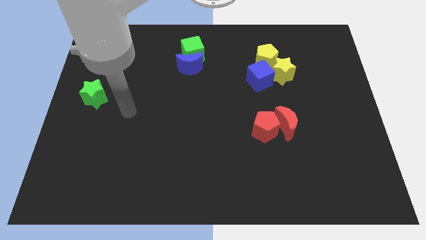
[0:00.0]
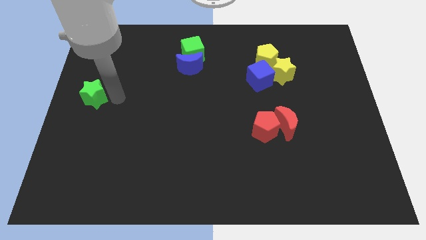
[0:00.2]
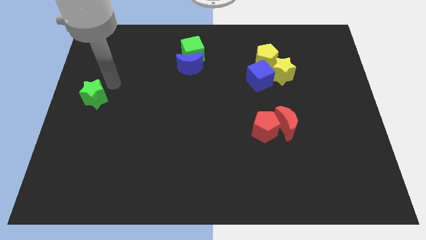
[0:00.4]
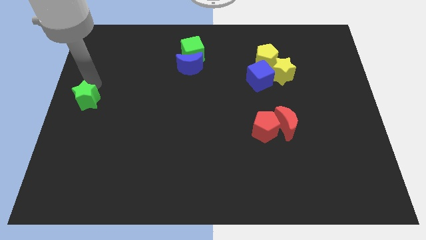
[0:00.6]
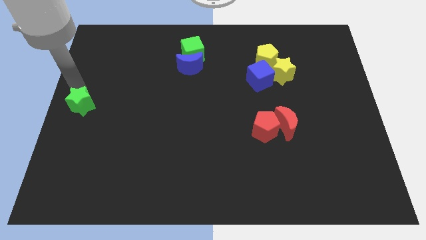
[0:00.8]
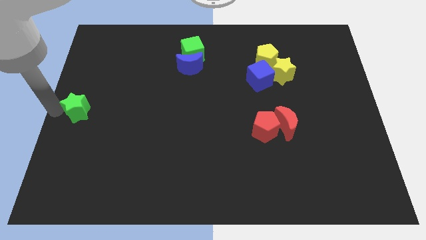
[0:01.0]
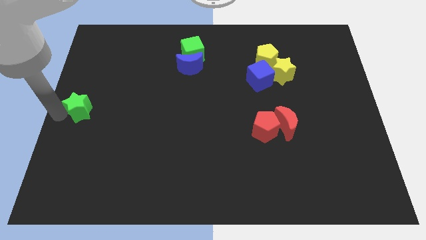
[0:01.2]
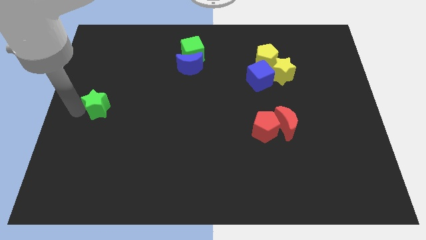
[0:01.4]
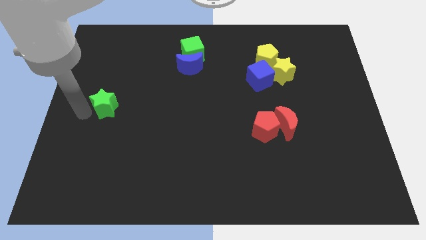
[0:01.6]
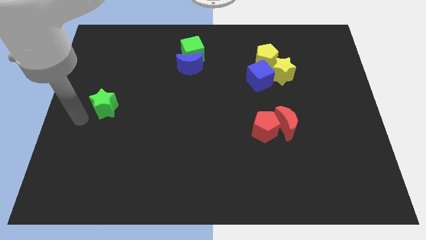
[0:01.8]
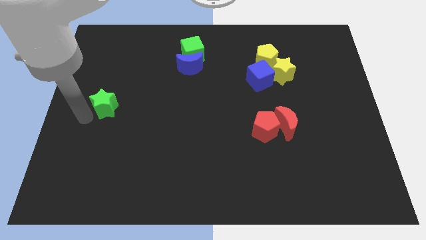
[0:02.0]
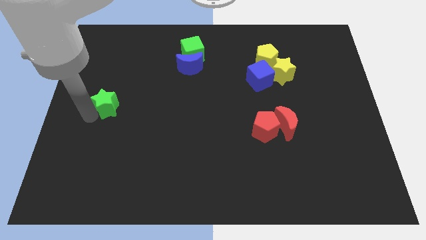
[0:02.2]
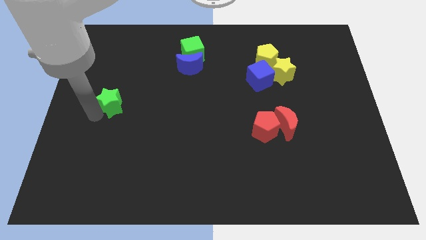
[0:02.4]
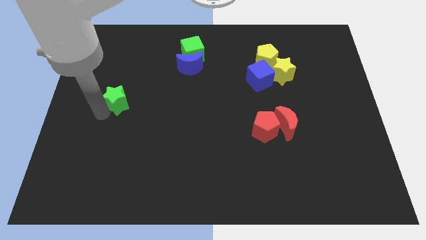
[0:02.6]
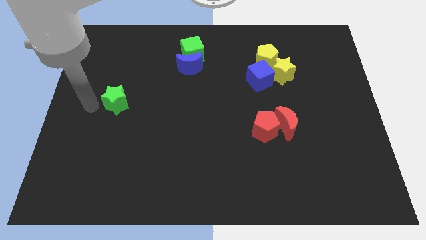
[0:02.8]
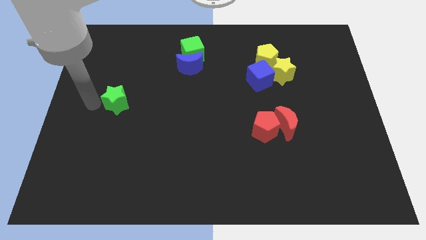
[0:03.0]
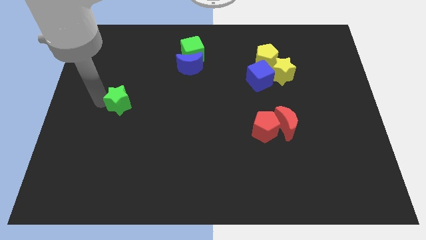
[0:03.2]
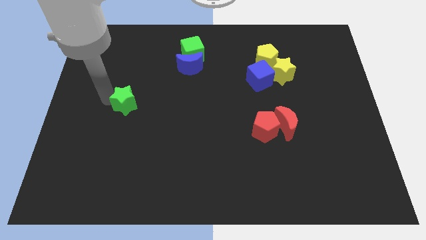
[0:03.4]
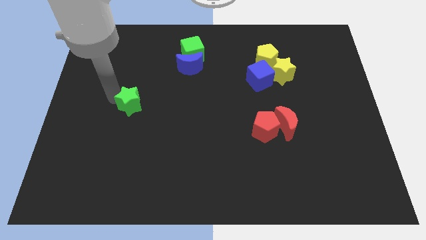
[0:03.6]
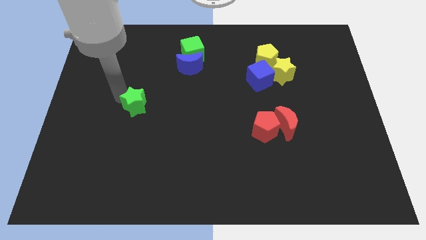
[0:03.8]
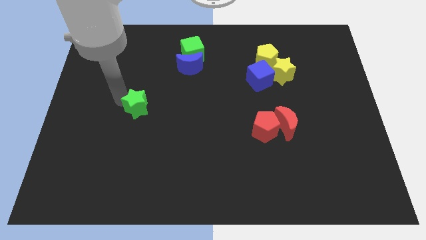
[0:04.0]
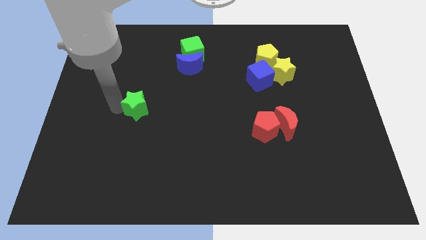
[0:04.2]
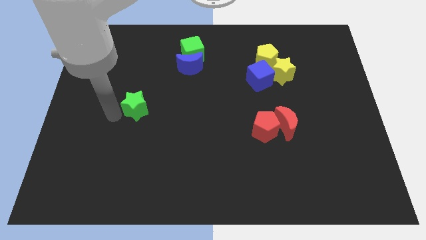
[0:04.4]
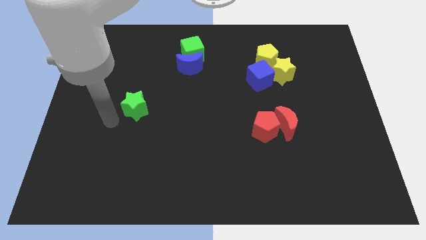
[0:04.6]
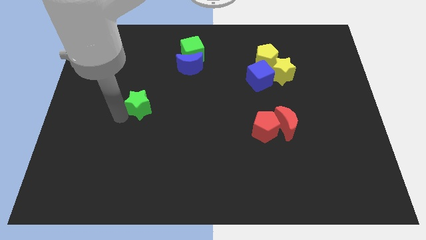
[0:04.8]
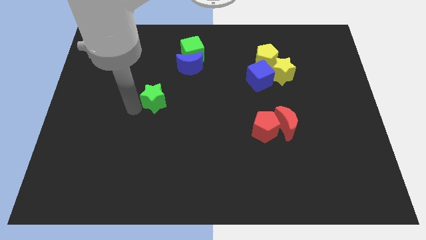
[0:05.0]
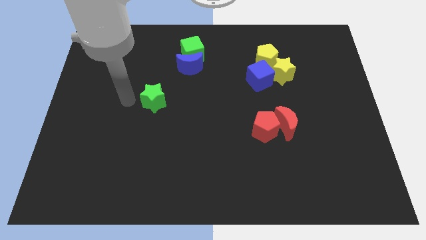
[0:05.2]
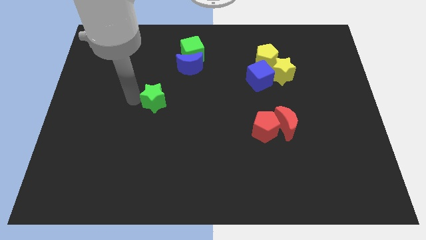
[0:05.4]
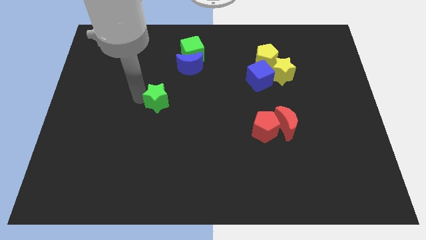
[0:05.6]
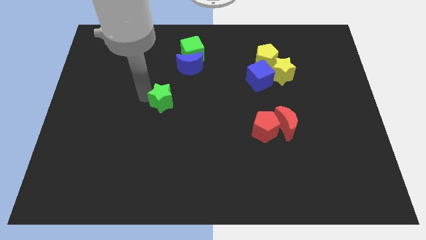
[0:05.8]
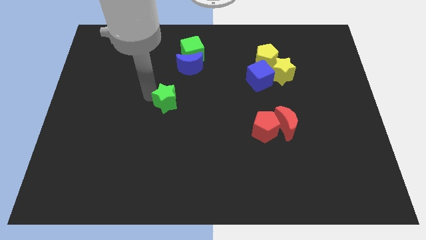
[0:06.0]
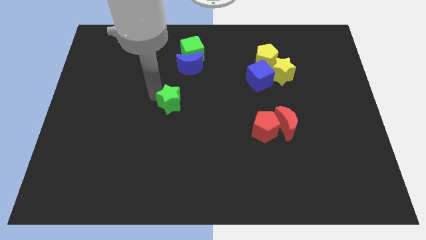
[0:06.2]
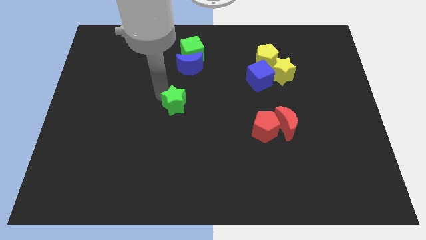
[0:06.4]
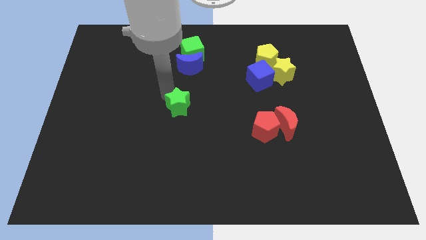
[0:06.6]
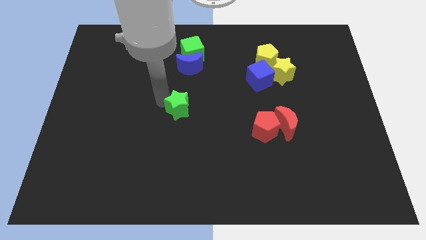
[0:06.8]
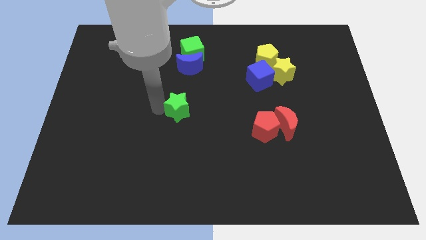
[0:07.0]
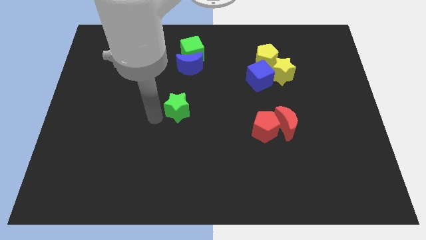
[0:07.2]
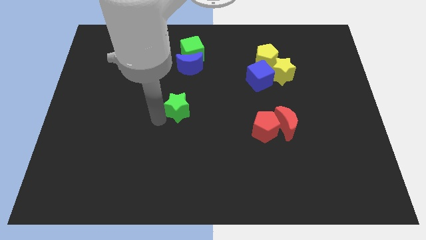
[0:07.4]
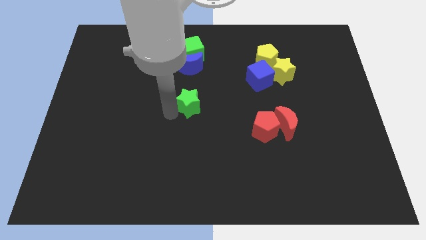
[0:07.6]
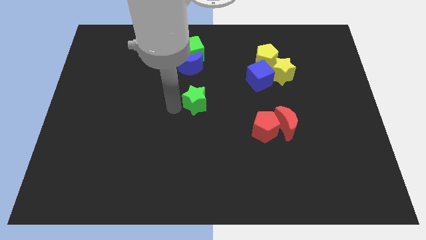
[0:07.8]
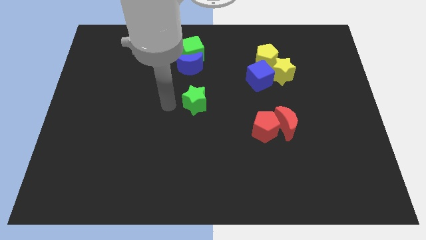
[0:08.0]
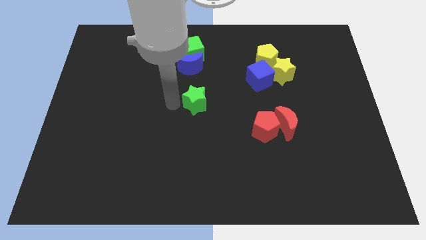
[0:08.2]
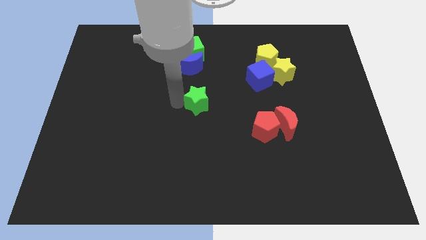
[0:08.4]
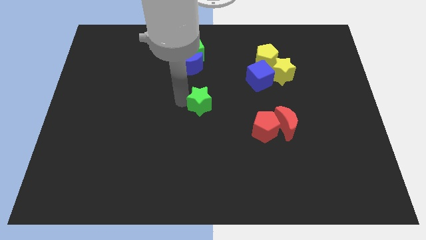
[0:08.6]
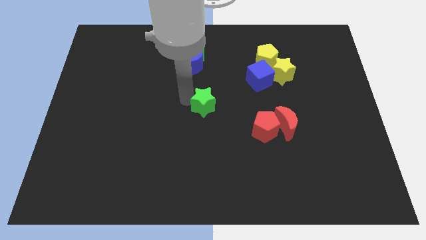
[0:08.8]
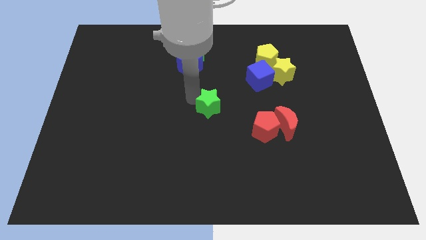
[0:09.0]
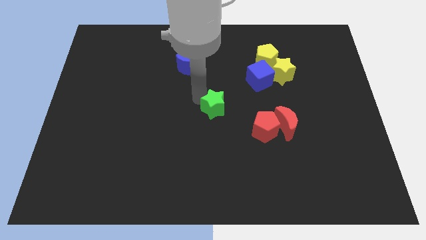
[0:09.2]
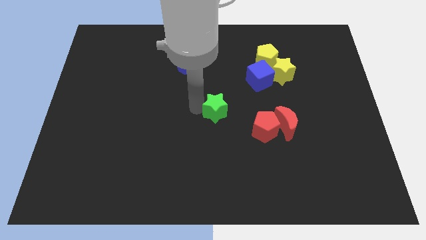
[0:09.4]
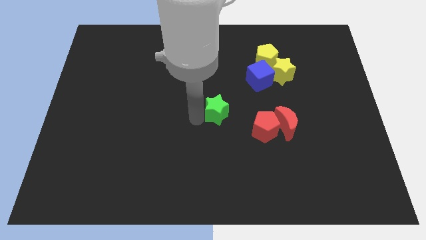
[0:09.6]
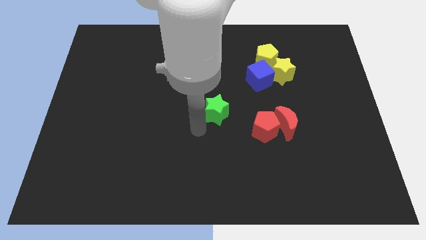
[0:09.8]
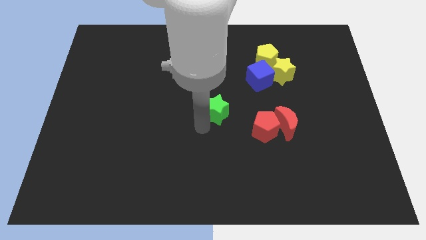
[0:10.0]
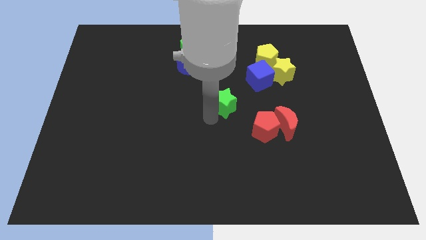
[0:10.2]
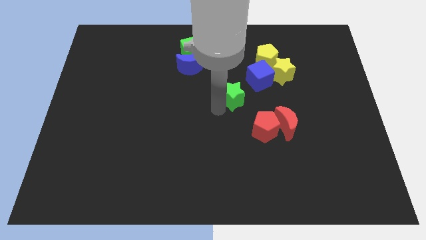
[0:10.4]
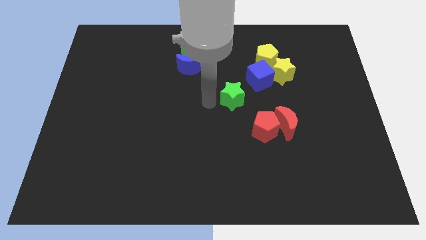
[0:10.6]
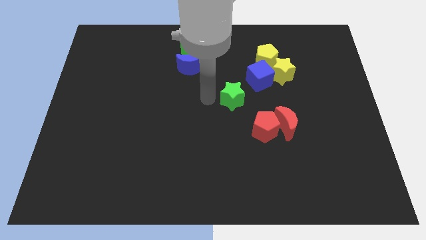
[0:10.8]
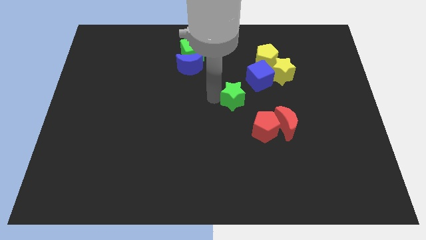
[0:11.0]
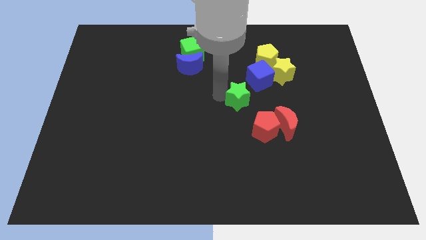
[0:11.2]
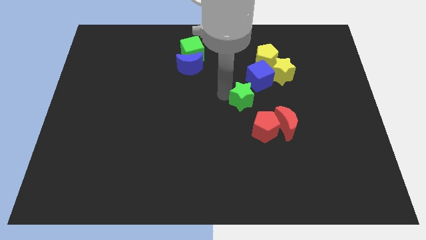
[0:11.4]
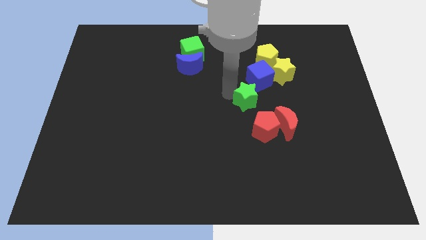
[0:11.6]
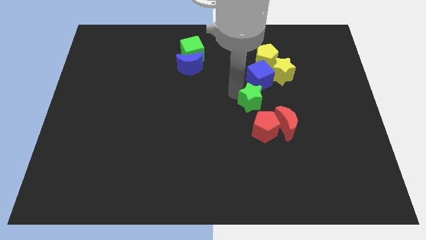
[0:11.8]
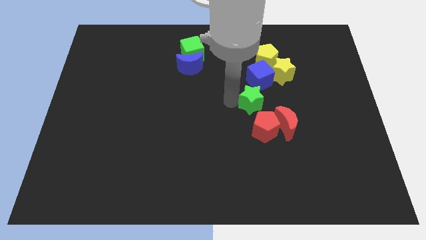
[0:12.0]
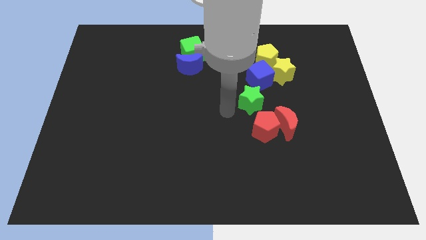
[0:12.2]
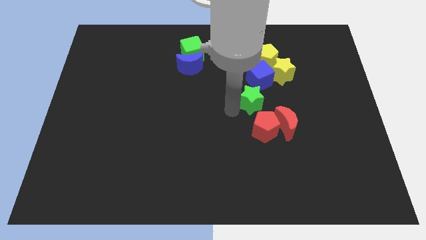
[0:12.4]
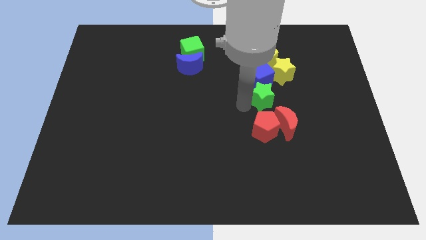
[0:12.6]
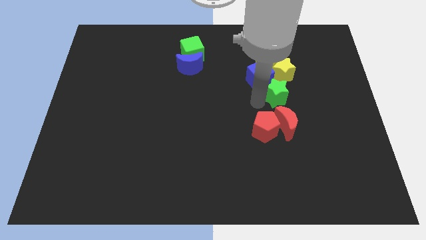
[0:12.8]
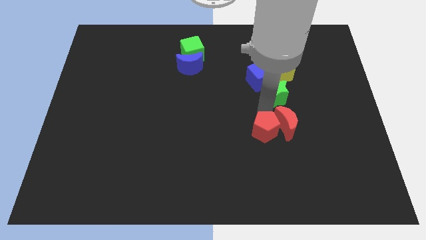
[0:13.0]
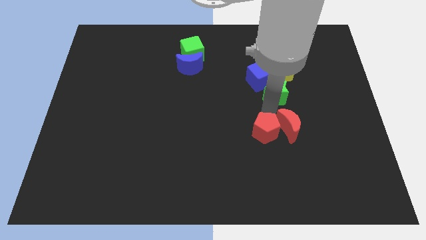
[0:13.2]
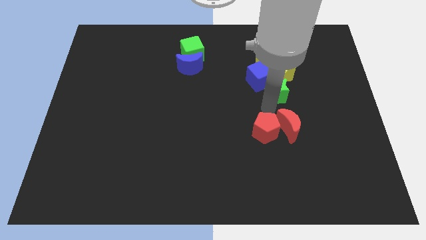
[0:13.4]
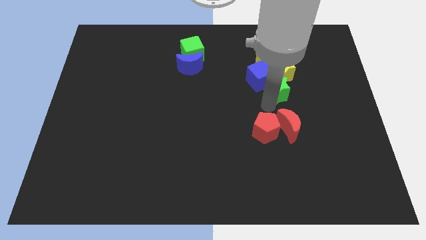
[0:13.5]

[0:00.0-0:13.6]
push the green star towards the yellow star

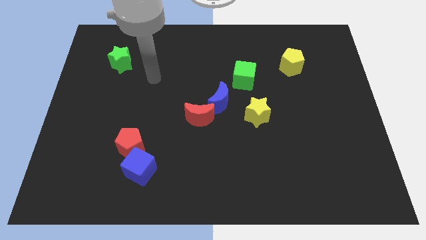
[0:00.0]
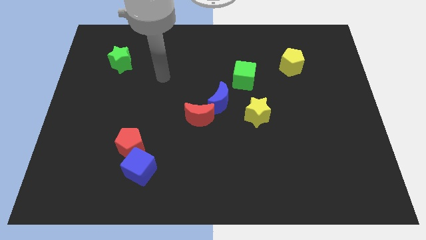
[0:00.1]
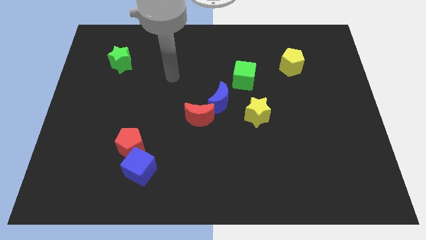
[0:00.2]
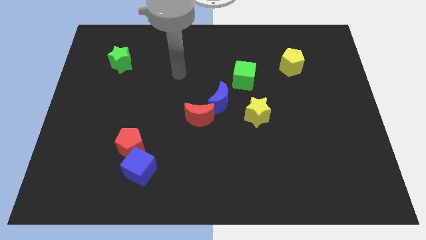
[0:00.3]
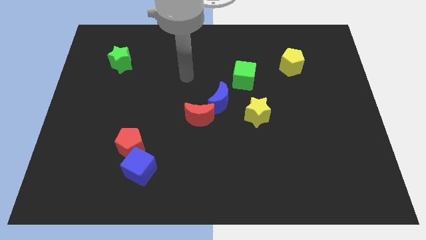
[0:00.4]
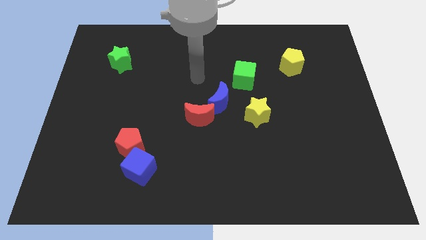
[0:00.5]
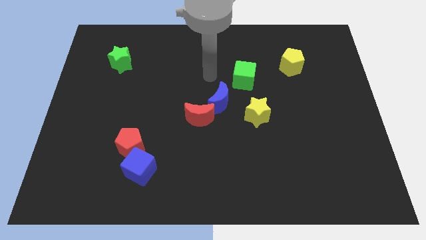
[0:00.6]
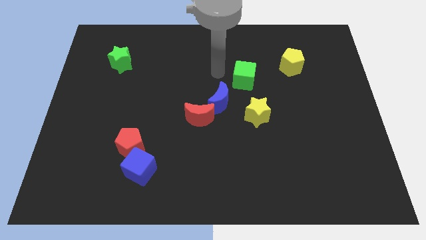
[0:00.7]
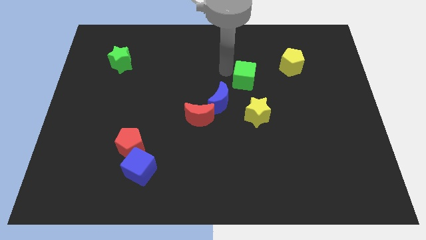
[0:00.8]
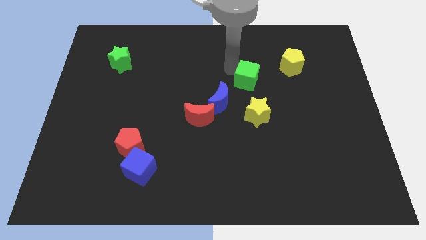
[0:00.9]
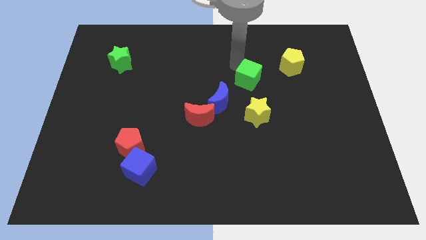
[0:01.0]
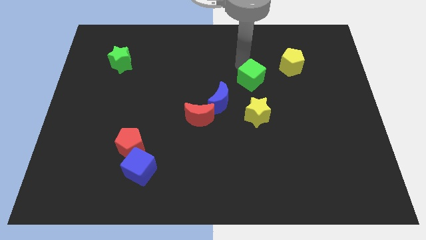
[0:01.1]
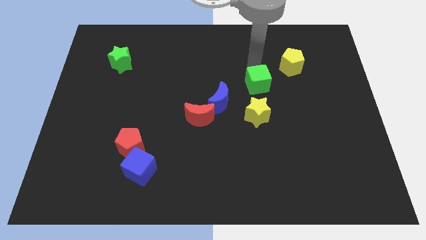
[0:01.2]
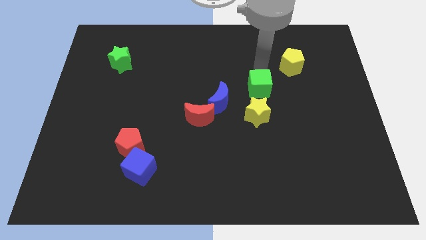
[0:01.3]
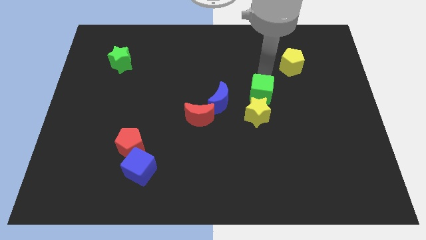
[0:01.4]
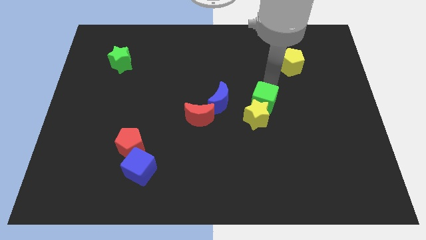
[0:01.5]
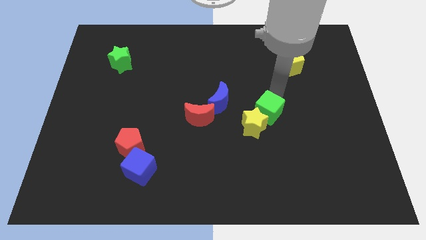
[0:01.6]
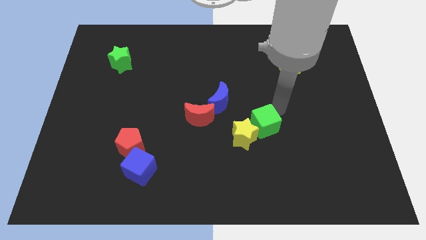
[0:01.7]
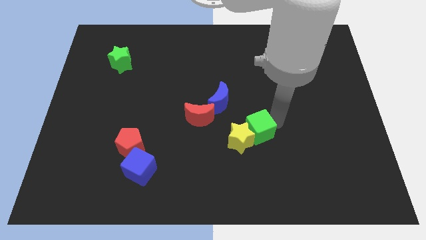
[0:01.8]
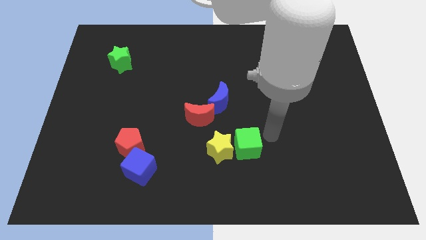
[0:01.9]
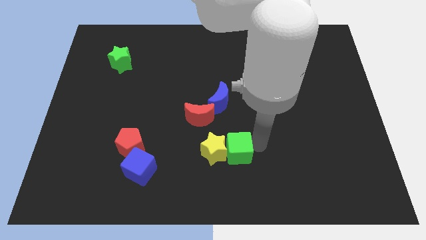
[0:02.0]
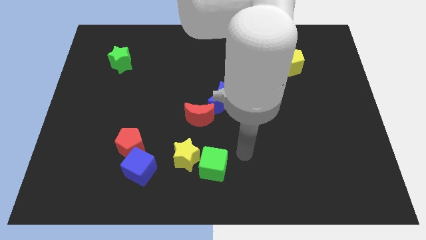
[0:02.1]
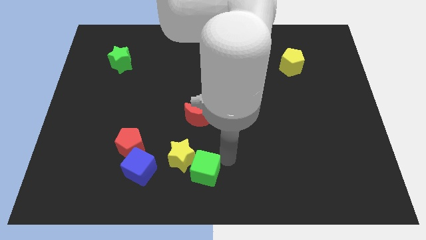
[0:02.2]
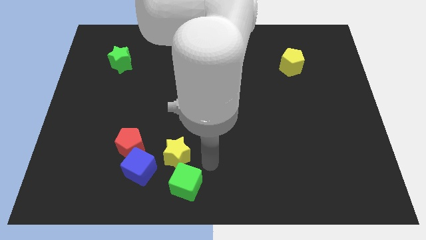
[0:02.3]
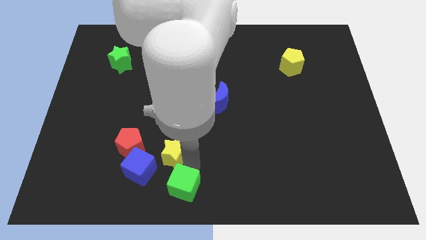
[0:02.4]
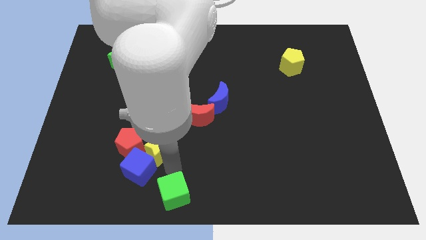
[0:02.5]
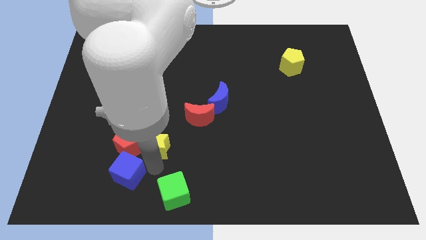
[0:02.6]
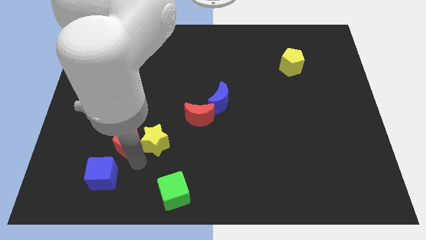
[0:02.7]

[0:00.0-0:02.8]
put the yellow star towards the red pentagon
